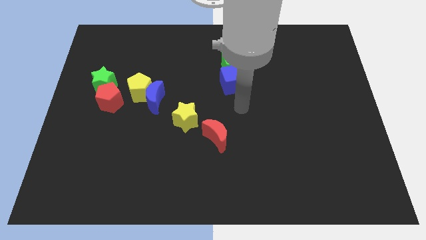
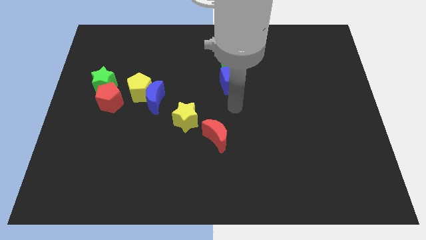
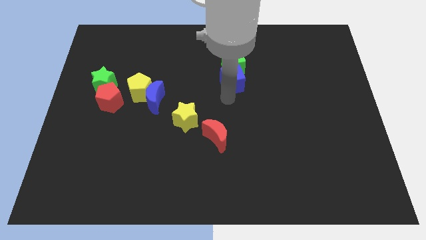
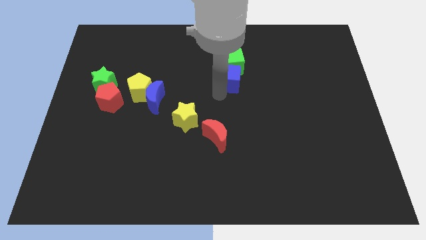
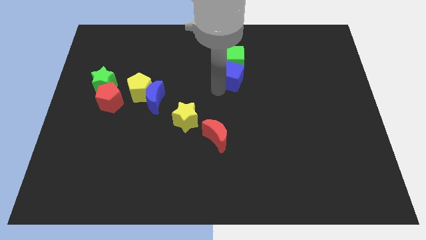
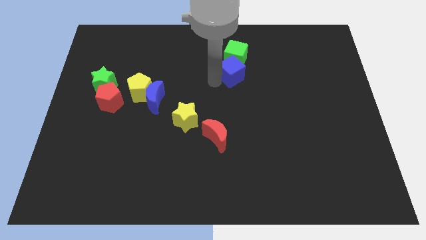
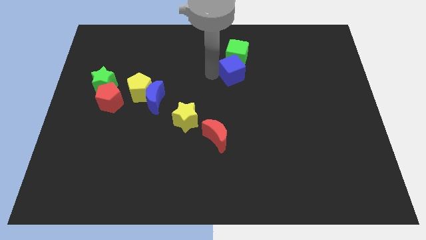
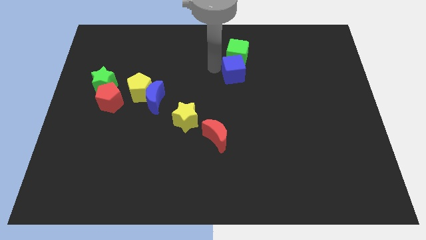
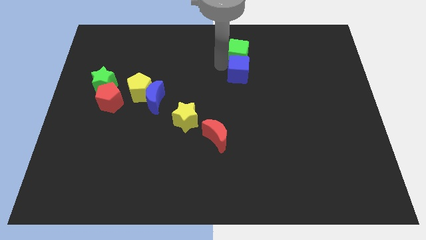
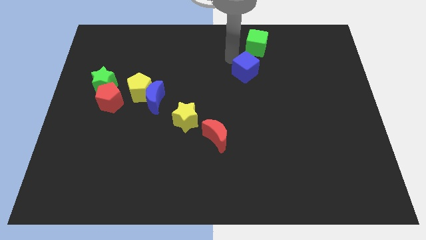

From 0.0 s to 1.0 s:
pull the blue cube apart from the green cube

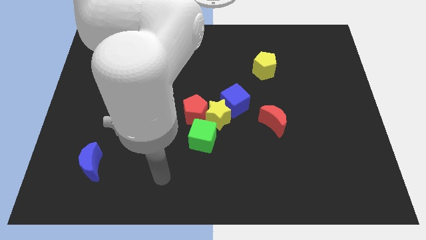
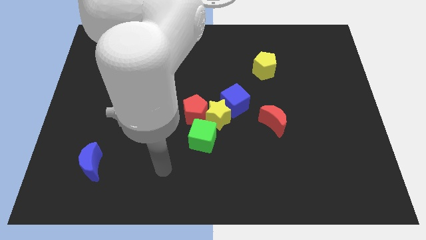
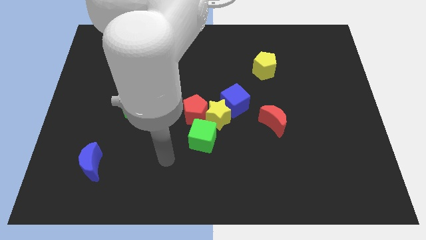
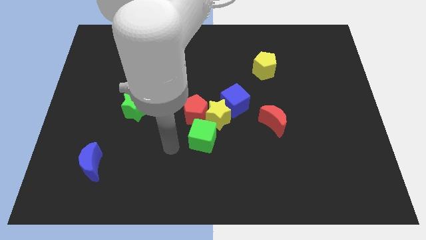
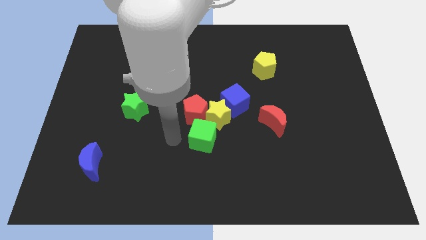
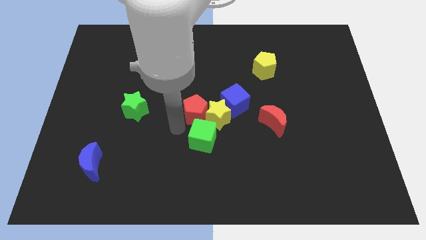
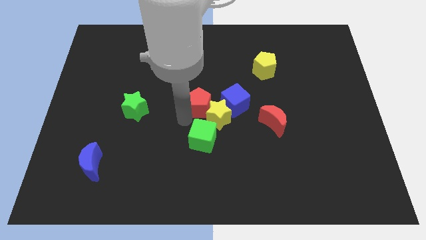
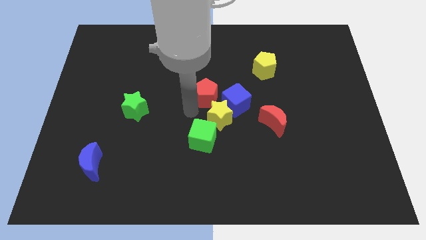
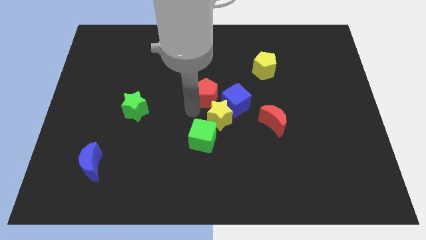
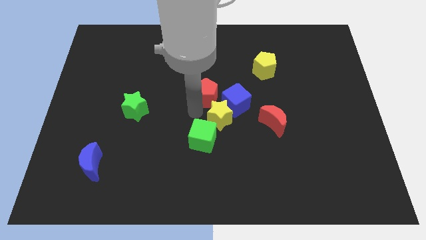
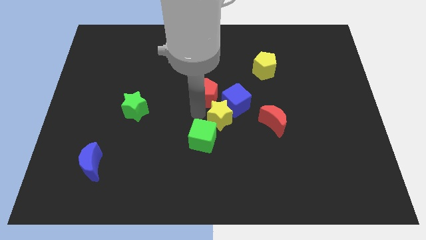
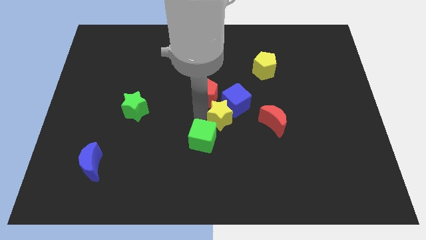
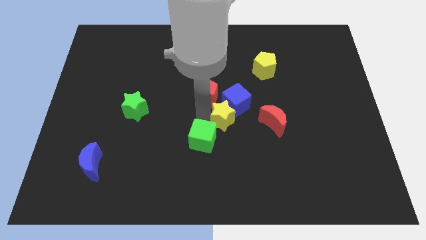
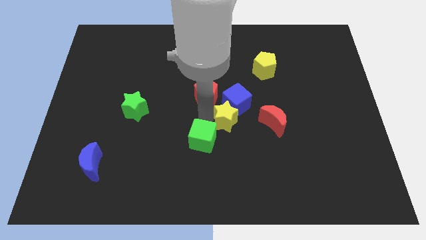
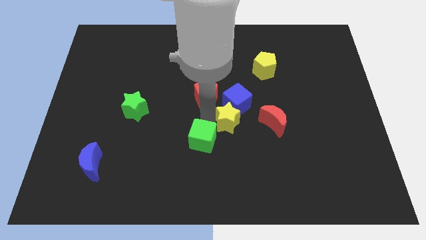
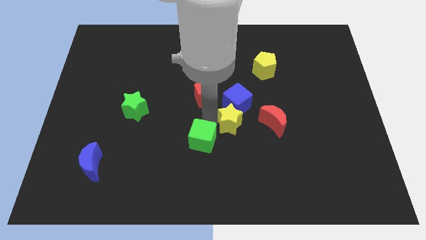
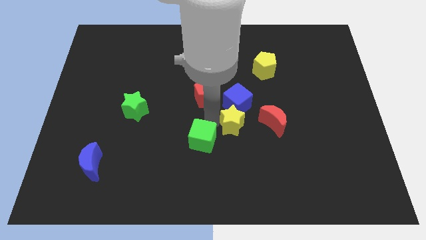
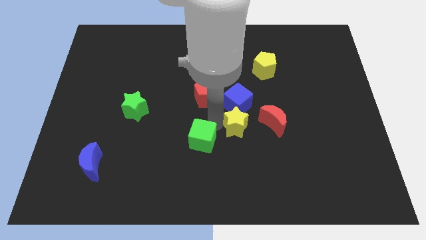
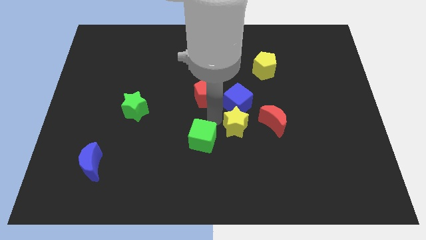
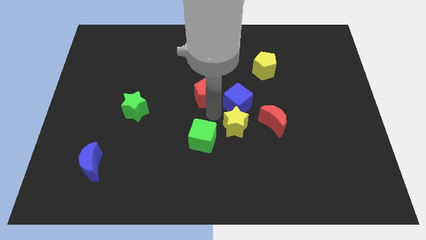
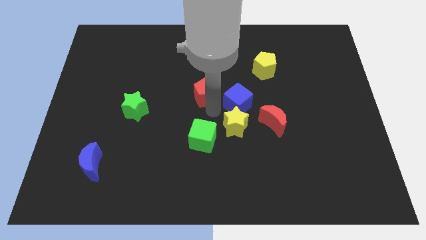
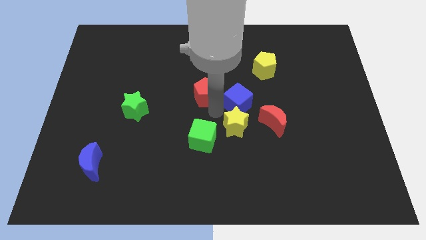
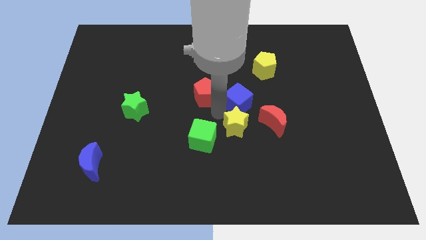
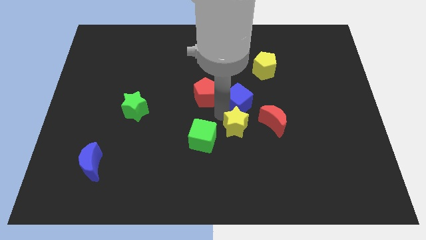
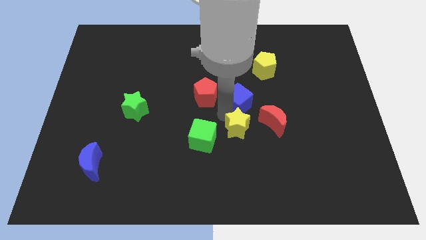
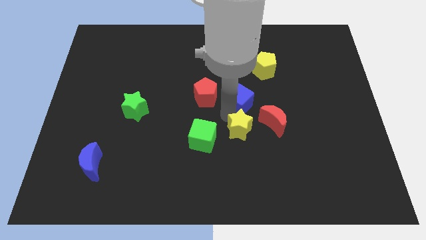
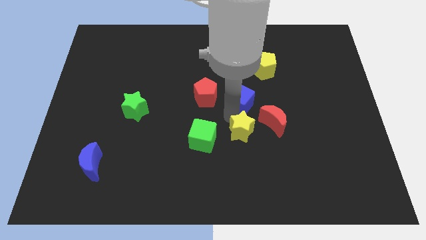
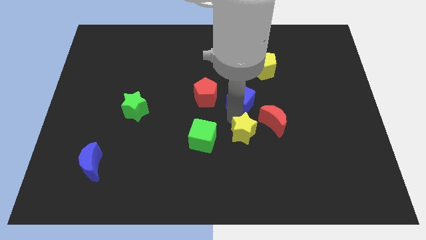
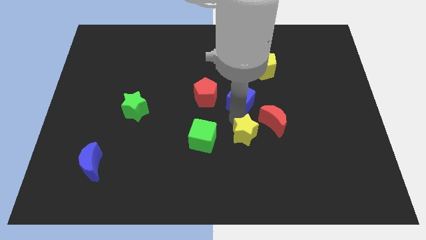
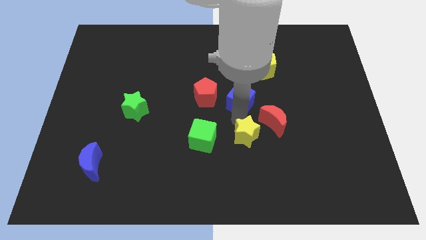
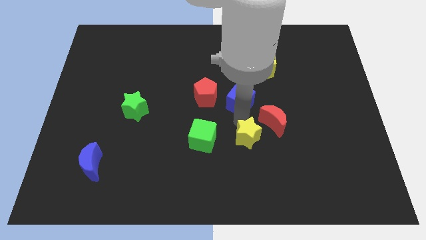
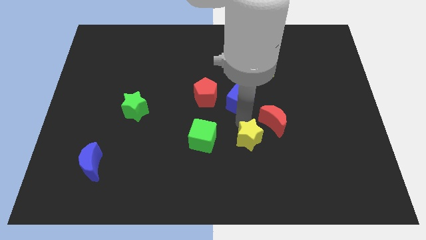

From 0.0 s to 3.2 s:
separate the yellow star from the group of blocks

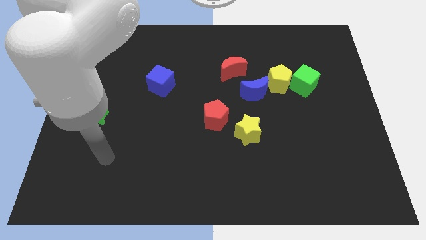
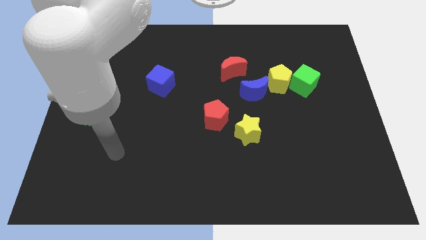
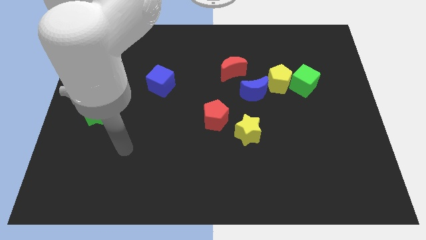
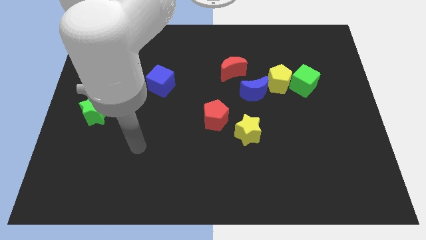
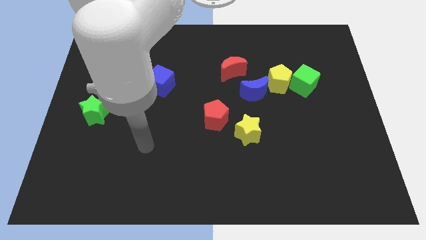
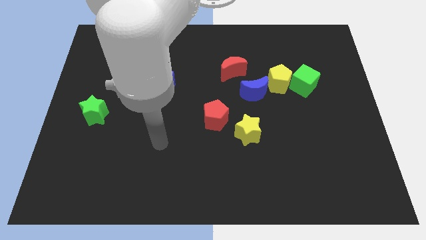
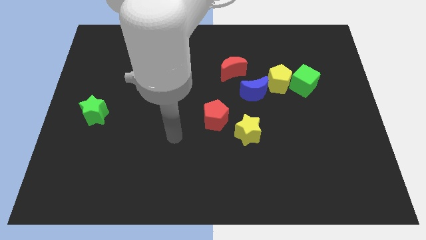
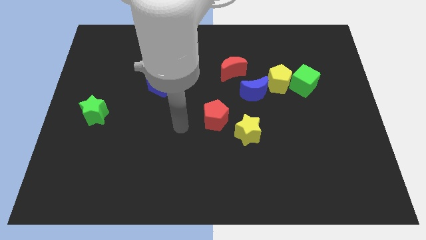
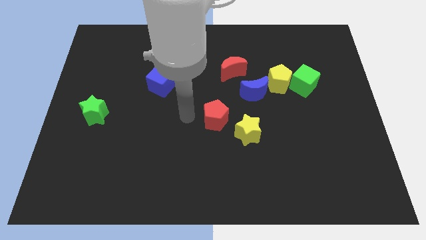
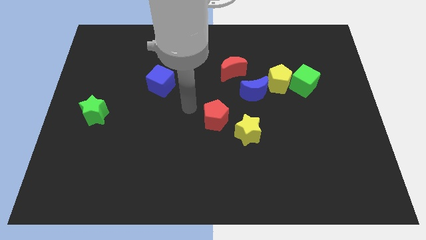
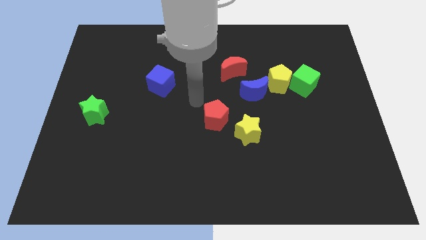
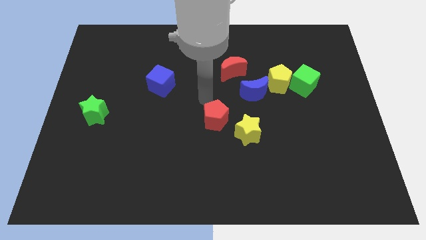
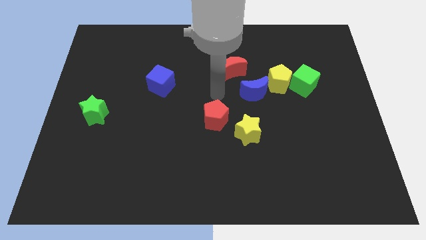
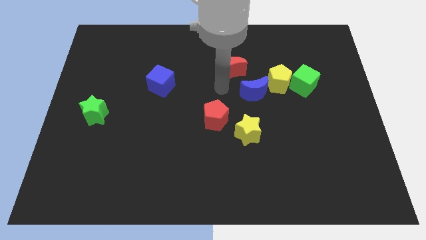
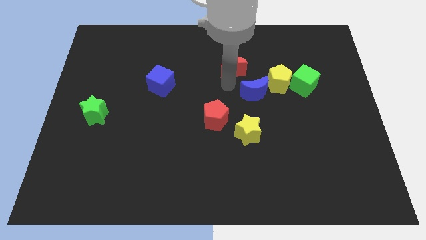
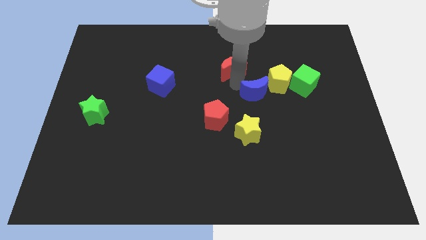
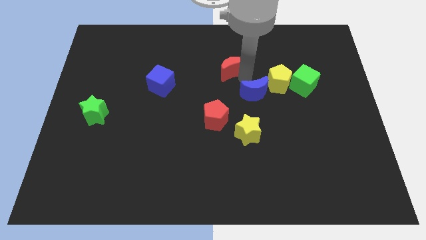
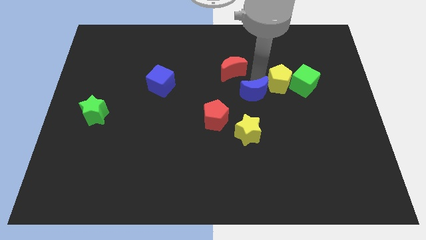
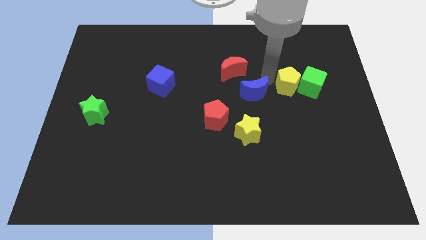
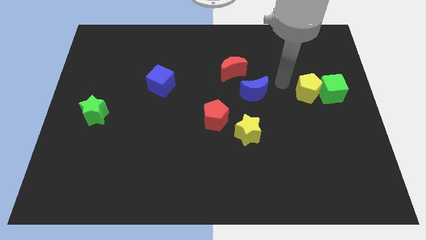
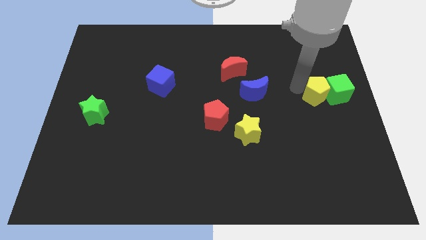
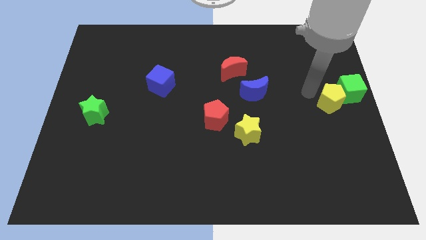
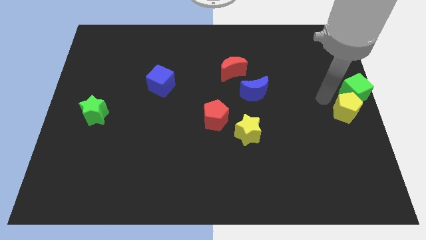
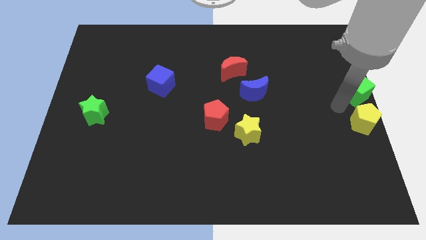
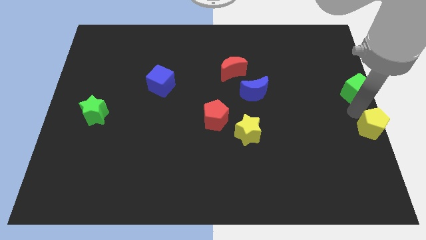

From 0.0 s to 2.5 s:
pull the green cube apart from the yellow pentagon

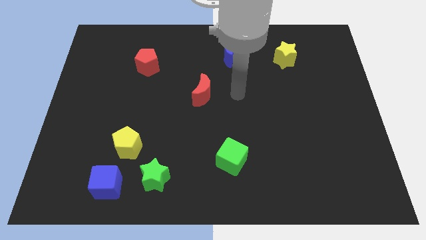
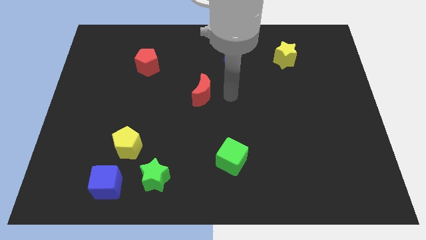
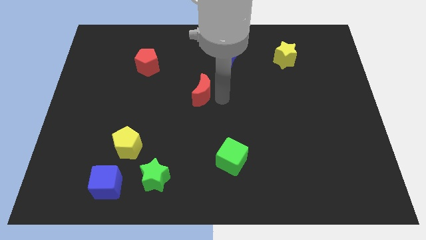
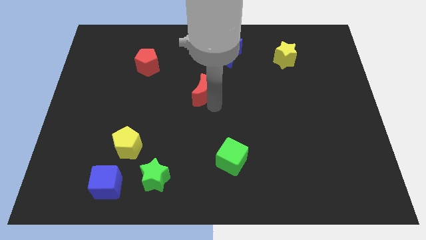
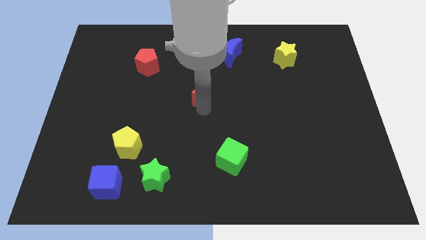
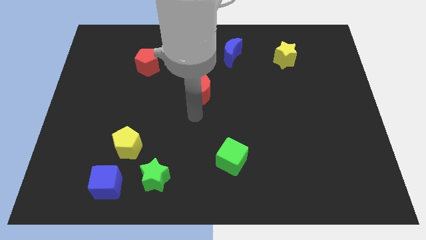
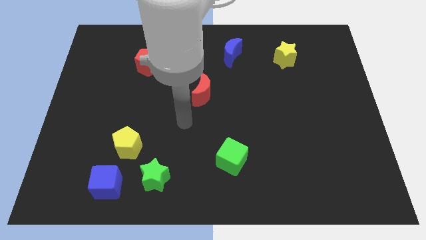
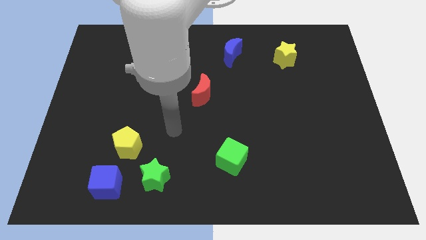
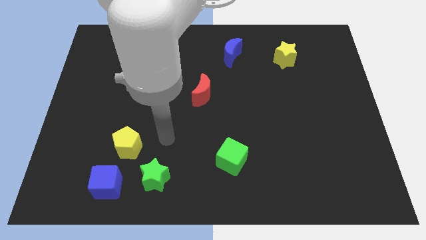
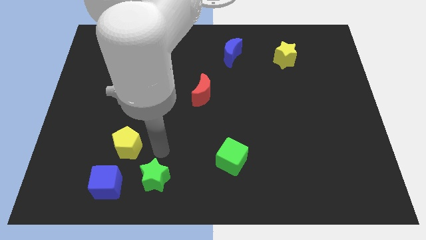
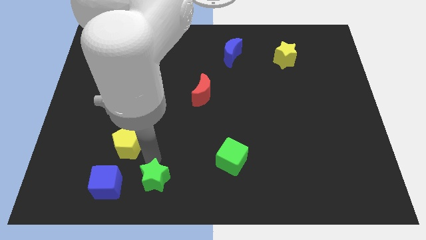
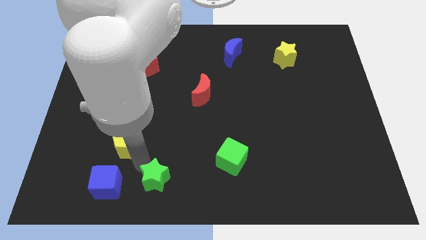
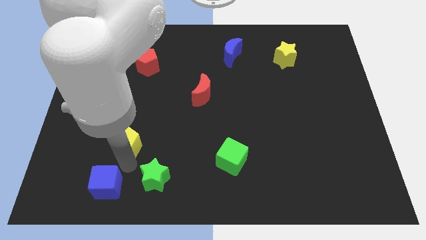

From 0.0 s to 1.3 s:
move the yellow pentagon away from the blue cube

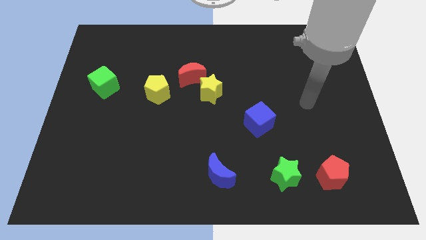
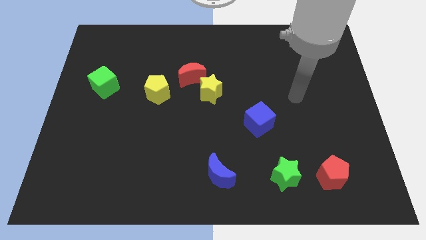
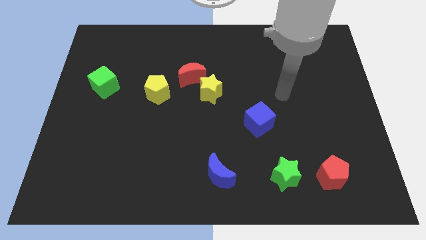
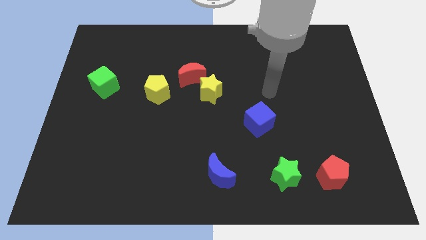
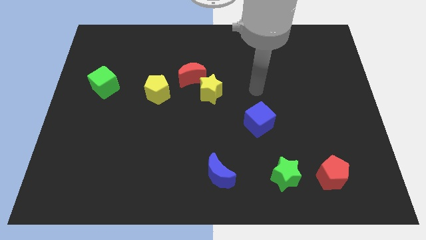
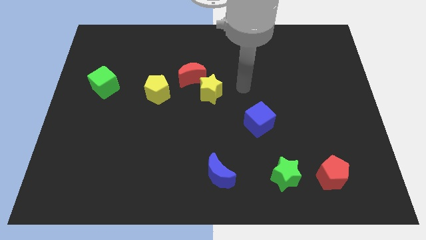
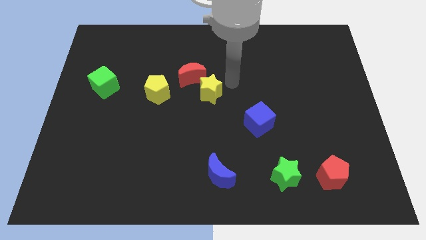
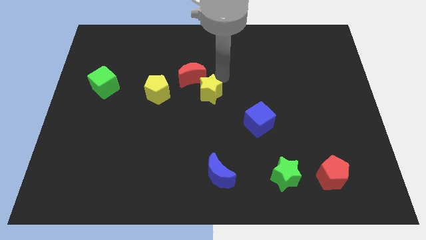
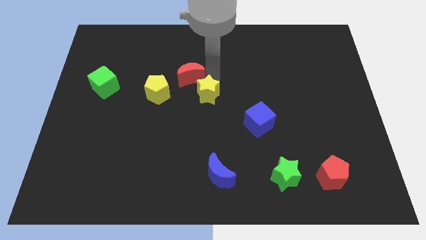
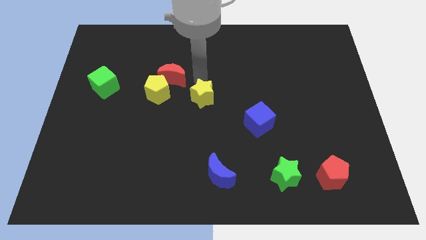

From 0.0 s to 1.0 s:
move the yellow star away from the red moon

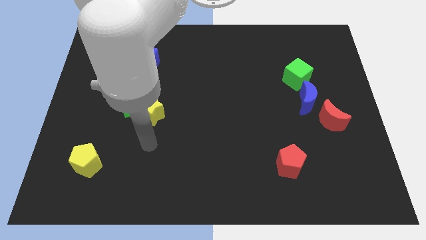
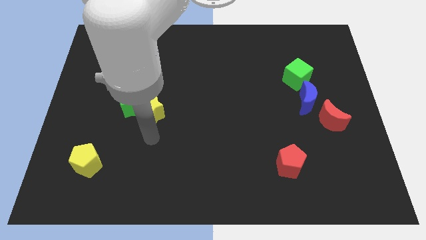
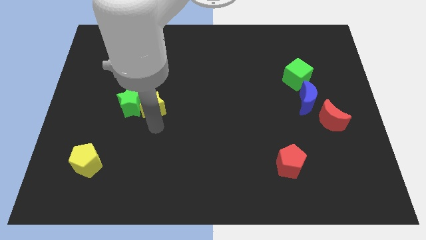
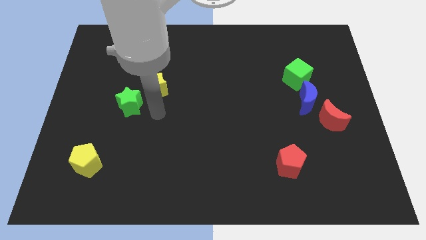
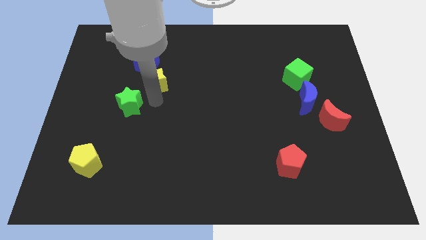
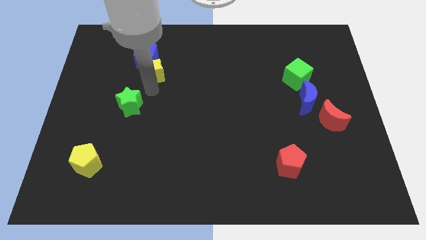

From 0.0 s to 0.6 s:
pull the green star apart from the yellow star
